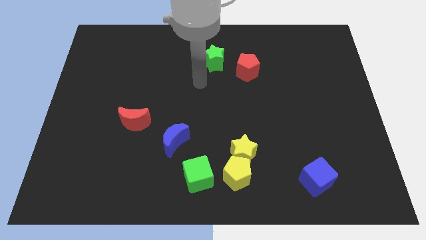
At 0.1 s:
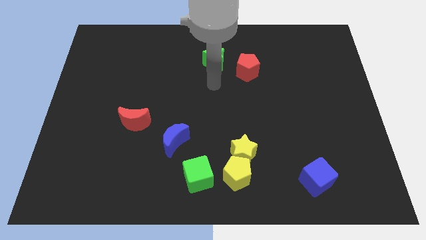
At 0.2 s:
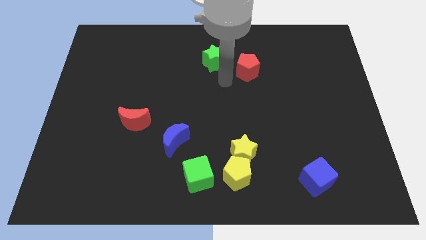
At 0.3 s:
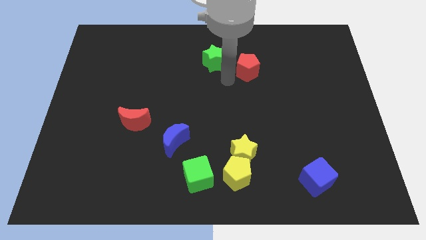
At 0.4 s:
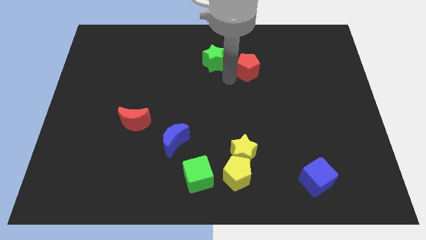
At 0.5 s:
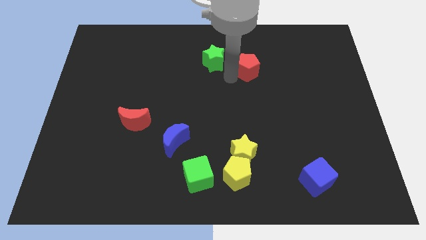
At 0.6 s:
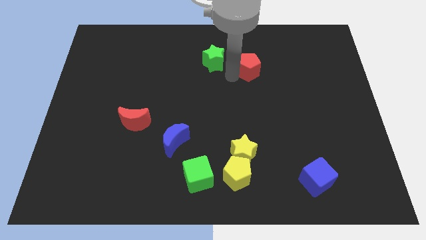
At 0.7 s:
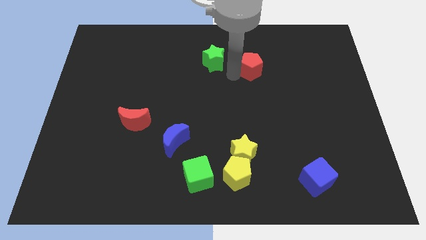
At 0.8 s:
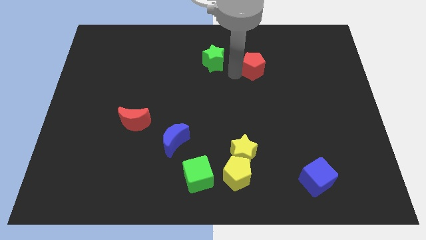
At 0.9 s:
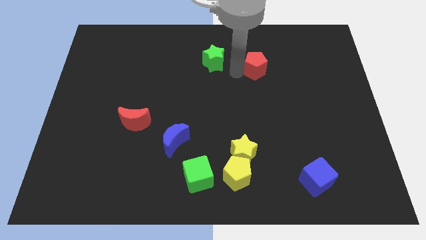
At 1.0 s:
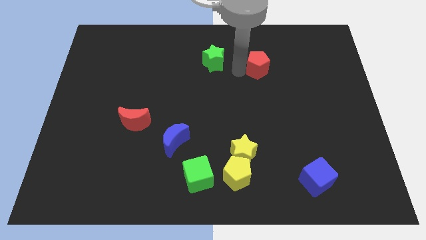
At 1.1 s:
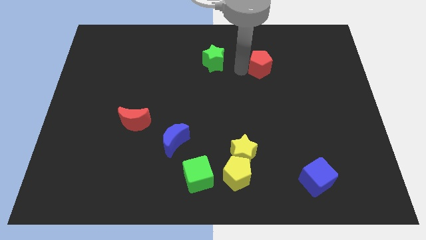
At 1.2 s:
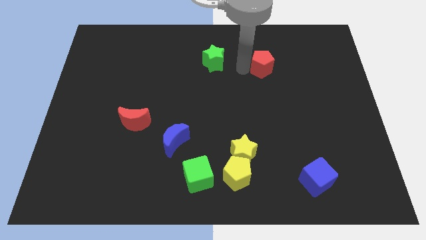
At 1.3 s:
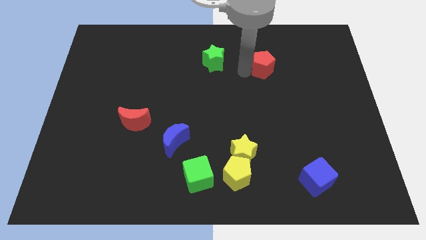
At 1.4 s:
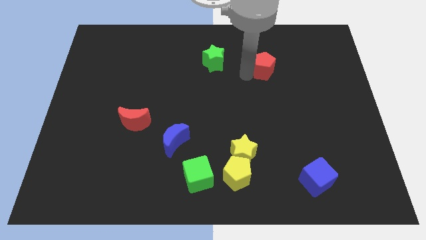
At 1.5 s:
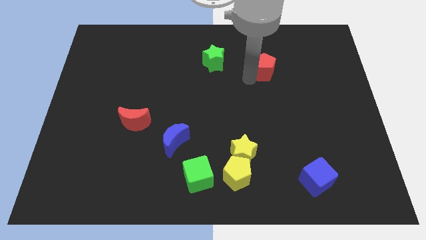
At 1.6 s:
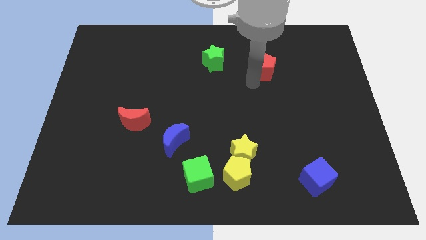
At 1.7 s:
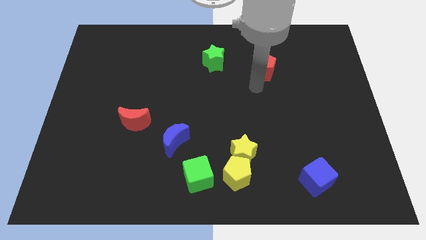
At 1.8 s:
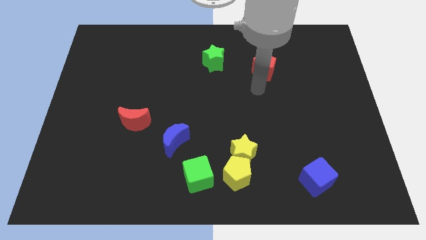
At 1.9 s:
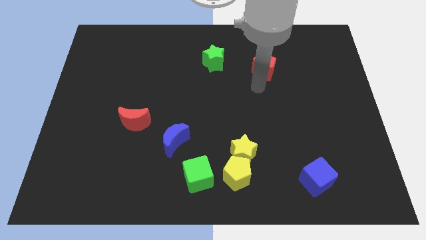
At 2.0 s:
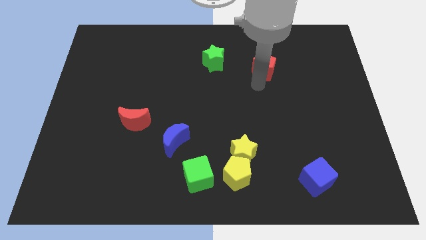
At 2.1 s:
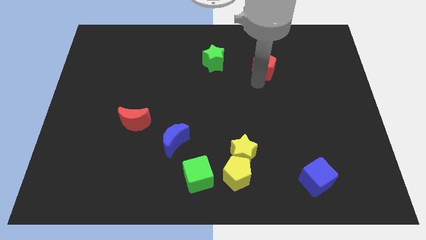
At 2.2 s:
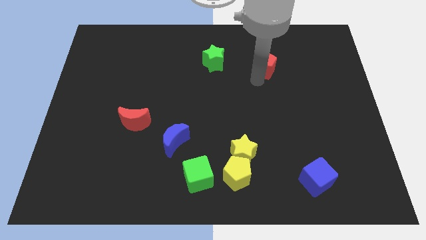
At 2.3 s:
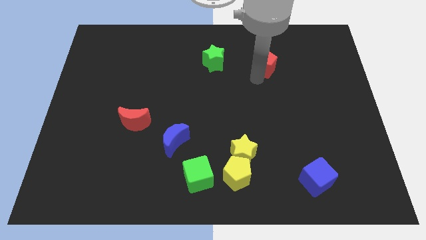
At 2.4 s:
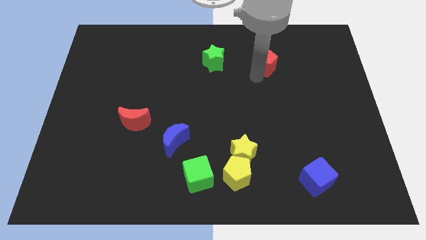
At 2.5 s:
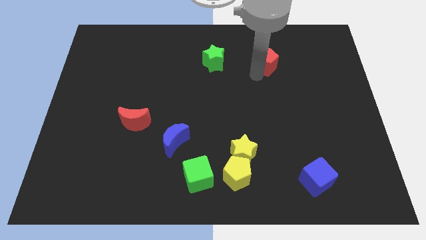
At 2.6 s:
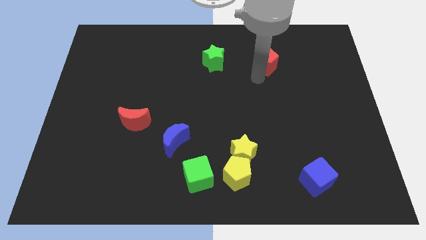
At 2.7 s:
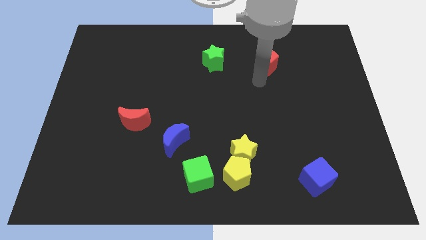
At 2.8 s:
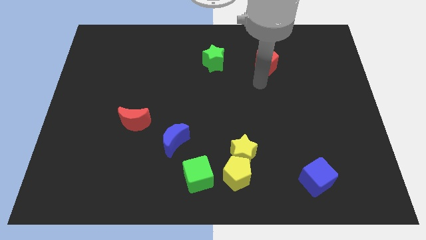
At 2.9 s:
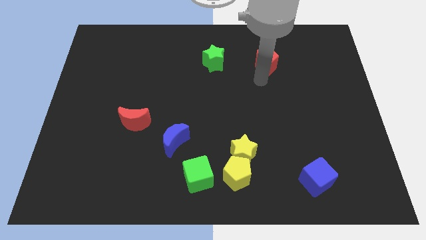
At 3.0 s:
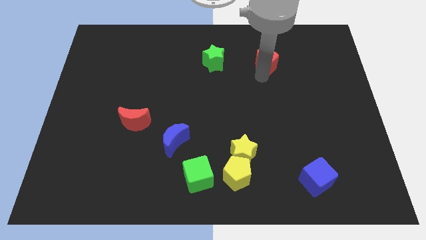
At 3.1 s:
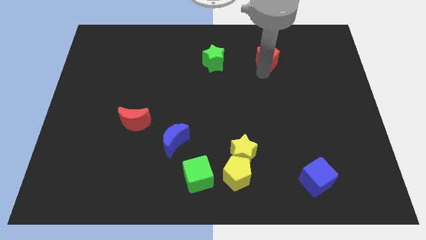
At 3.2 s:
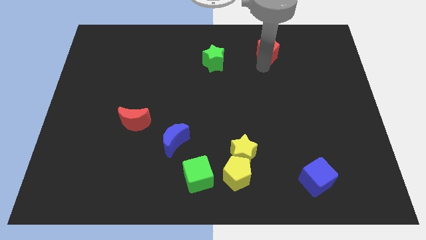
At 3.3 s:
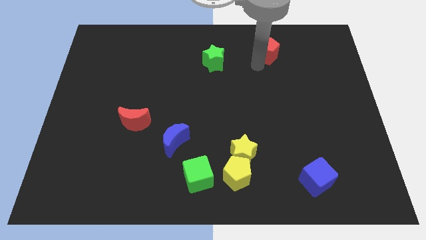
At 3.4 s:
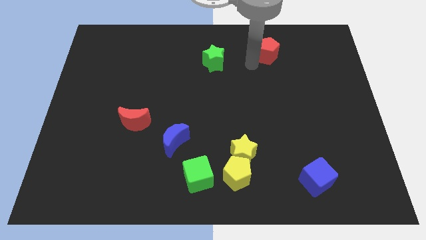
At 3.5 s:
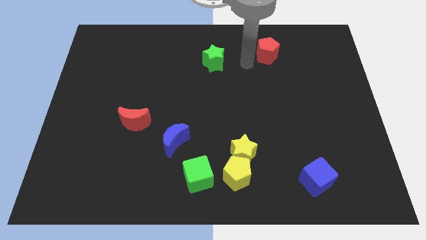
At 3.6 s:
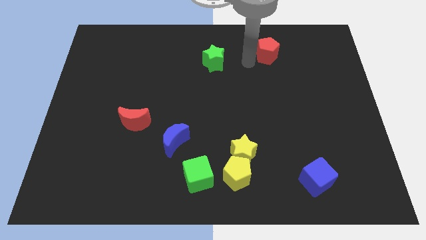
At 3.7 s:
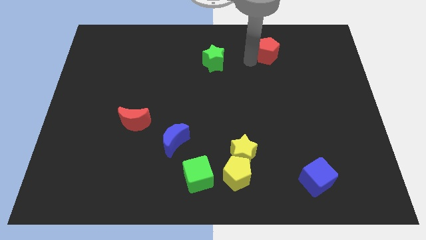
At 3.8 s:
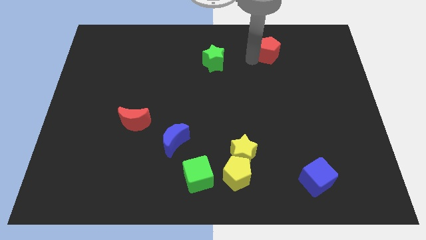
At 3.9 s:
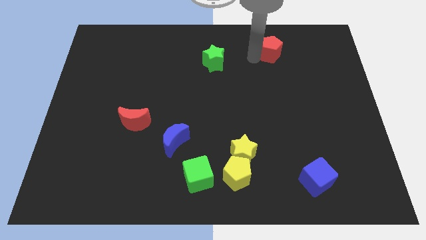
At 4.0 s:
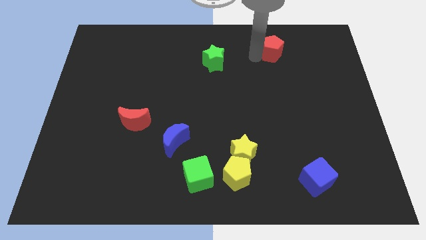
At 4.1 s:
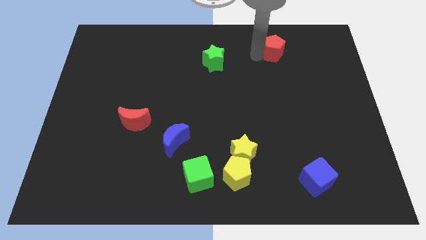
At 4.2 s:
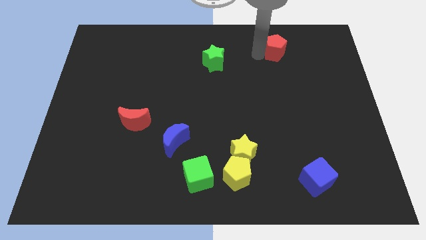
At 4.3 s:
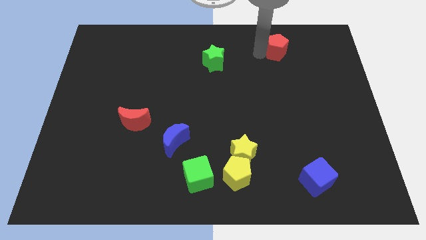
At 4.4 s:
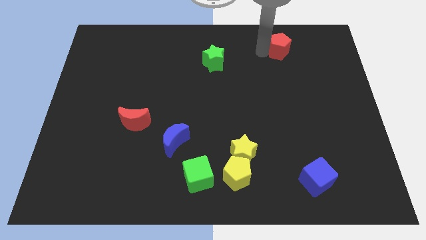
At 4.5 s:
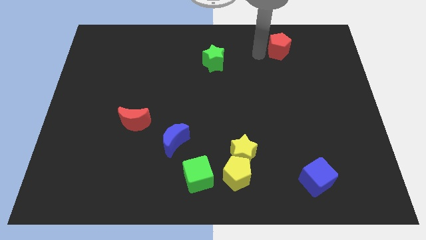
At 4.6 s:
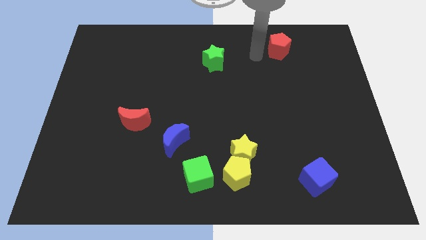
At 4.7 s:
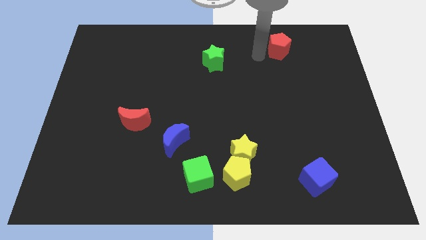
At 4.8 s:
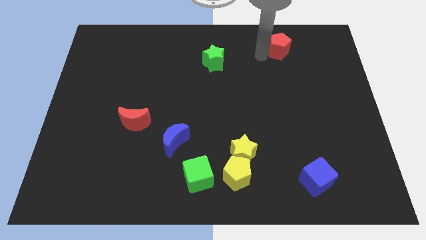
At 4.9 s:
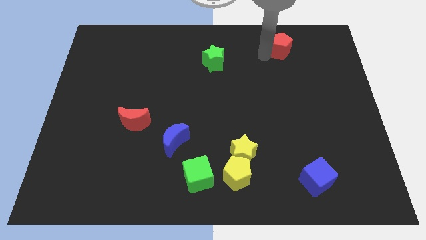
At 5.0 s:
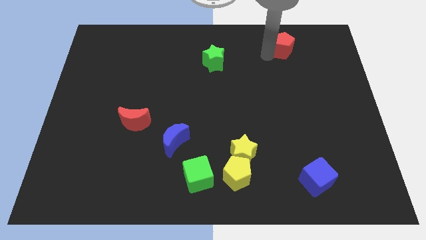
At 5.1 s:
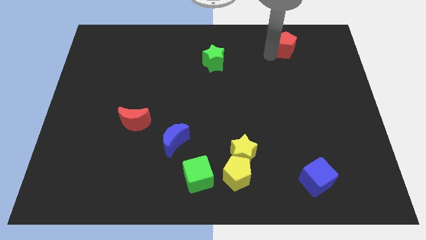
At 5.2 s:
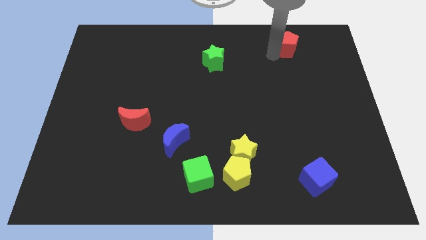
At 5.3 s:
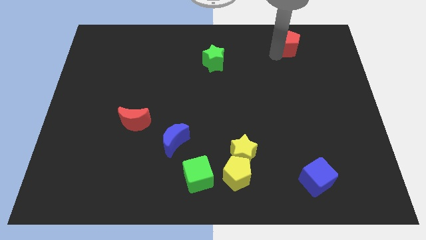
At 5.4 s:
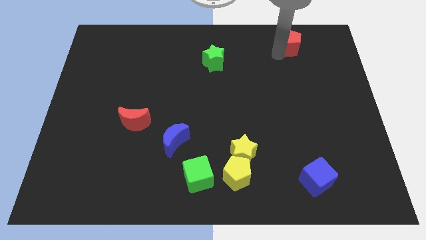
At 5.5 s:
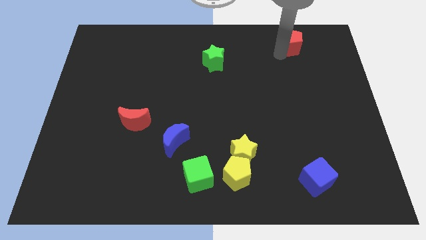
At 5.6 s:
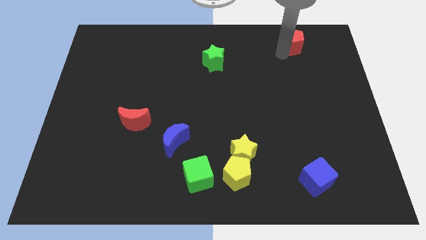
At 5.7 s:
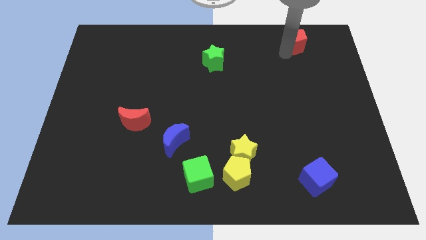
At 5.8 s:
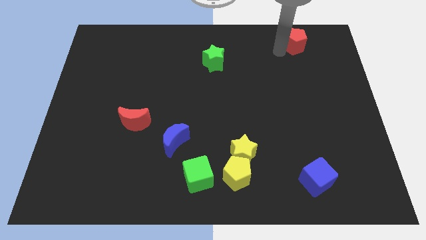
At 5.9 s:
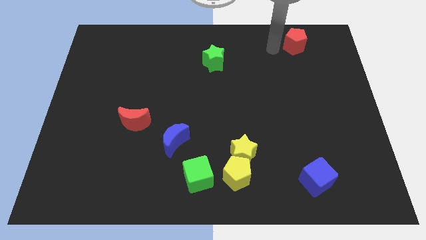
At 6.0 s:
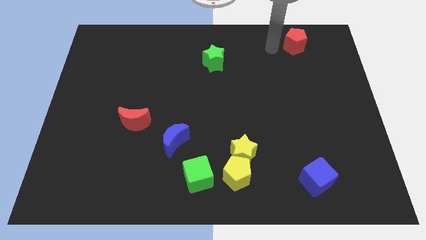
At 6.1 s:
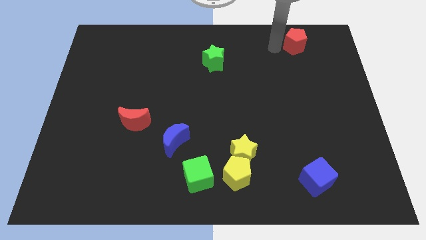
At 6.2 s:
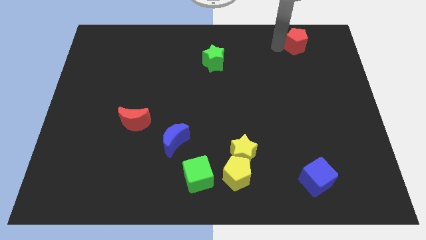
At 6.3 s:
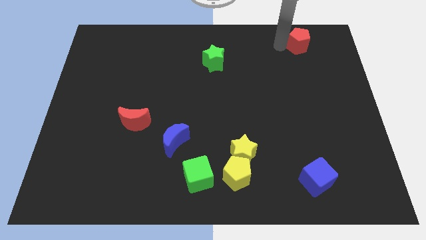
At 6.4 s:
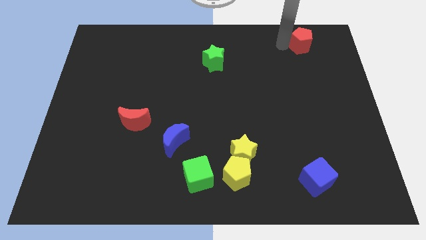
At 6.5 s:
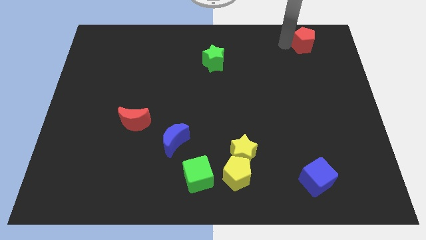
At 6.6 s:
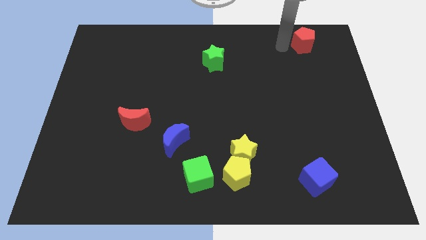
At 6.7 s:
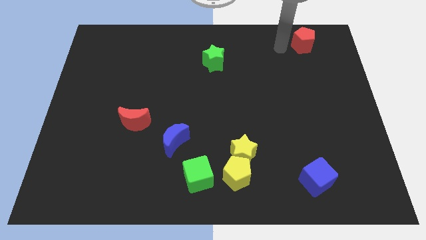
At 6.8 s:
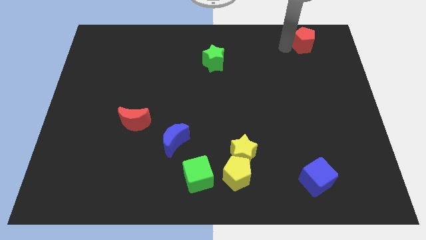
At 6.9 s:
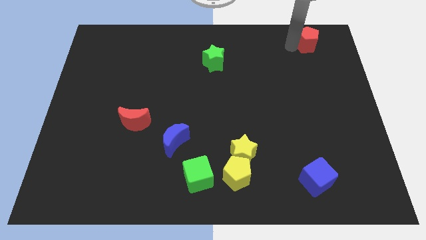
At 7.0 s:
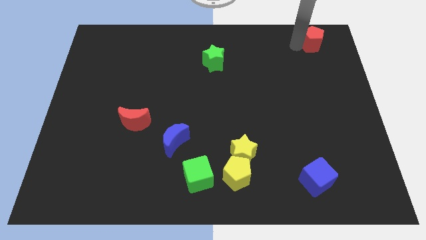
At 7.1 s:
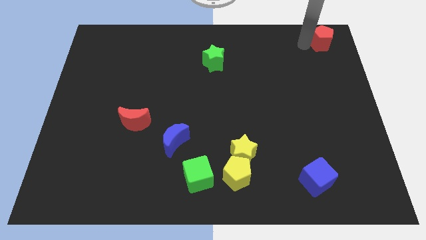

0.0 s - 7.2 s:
push the red pentagon to the top right

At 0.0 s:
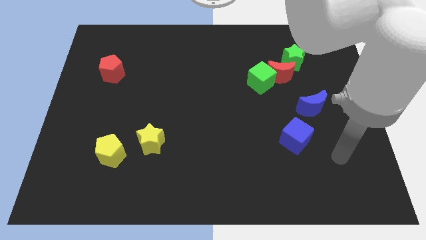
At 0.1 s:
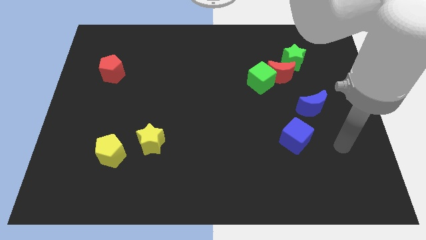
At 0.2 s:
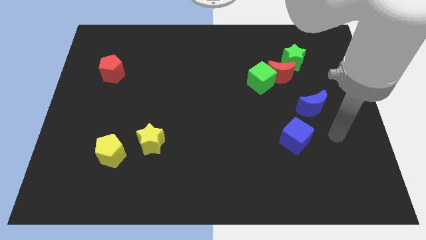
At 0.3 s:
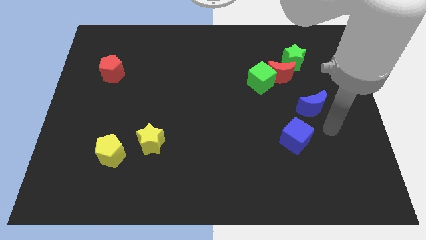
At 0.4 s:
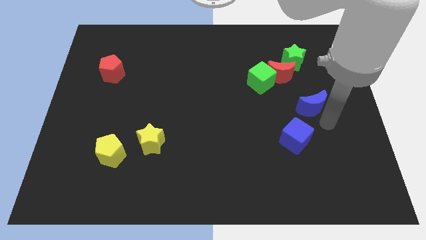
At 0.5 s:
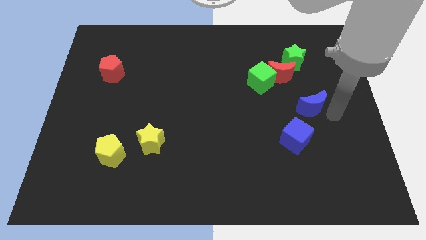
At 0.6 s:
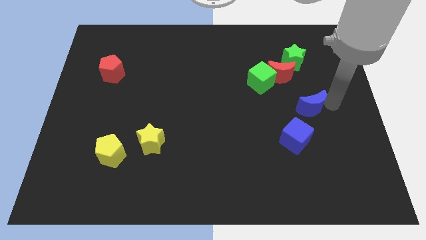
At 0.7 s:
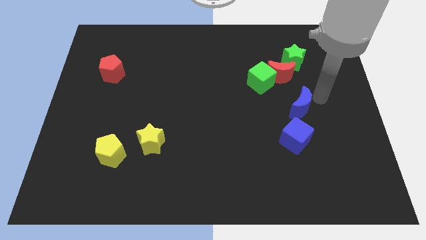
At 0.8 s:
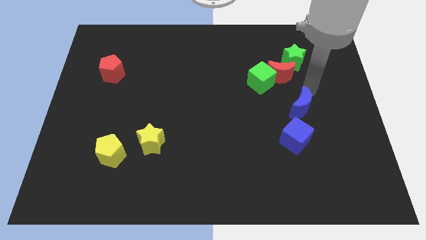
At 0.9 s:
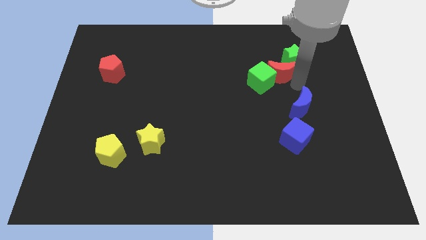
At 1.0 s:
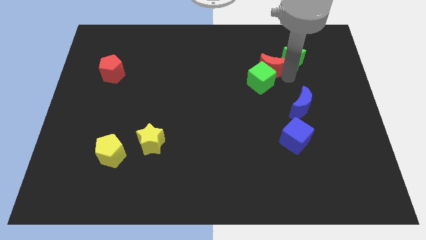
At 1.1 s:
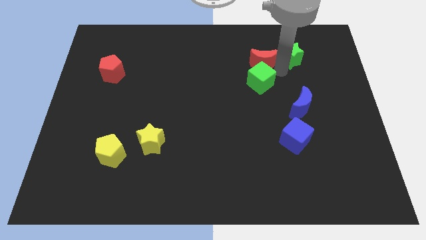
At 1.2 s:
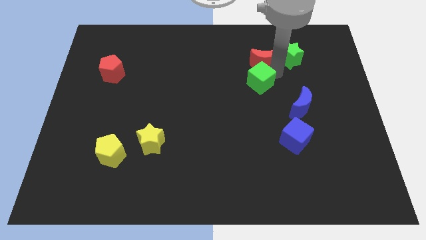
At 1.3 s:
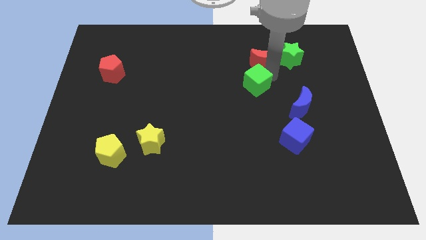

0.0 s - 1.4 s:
slide the green cube to the middle of the board
